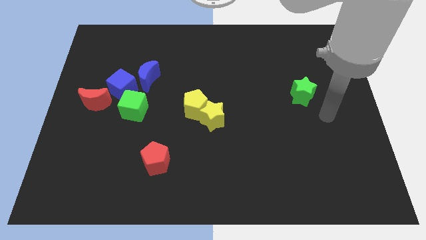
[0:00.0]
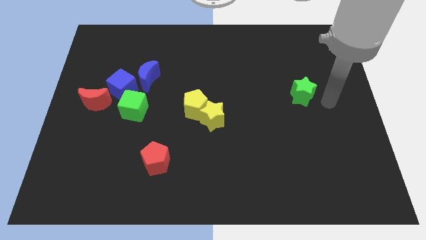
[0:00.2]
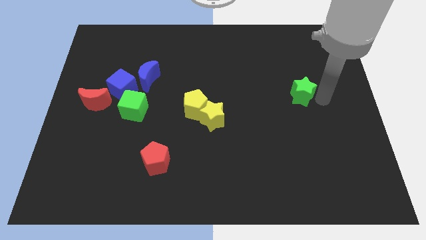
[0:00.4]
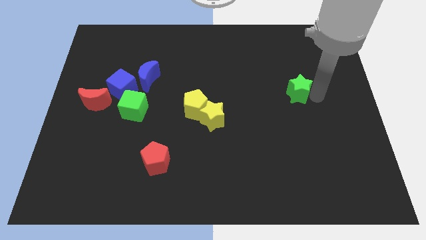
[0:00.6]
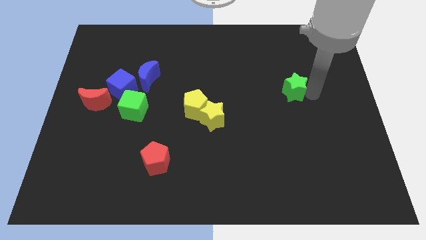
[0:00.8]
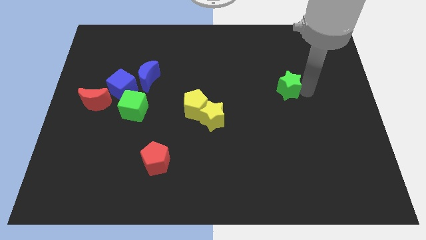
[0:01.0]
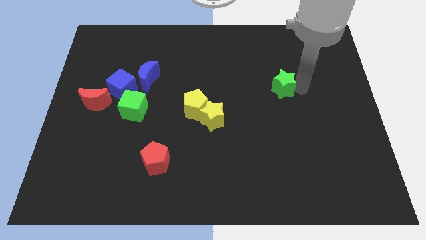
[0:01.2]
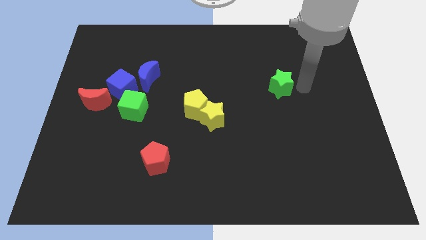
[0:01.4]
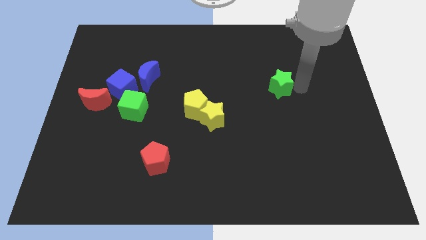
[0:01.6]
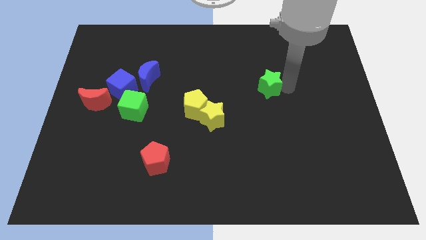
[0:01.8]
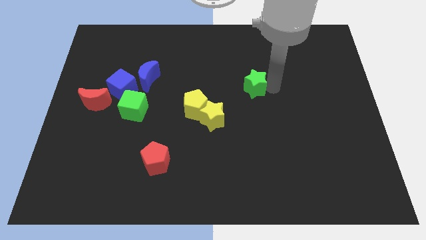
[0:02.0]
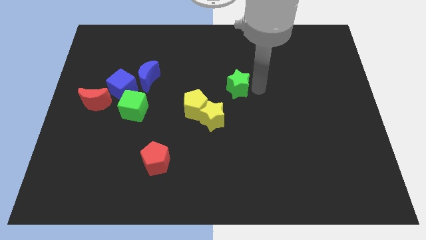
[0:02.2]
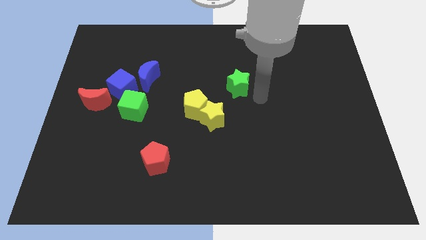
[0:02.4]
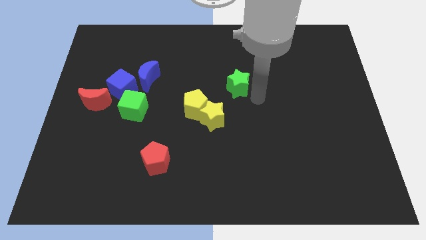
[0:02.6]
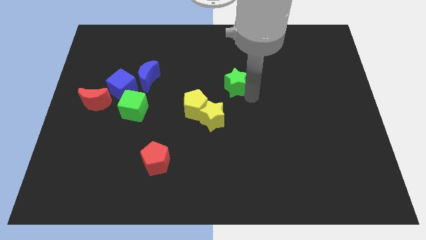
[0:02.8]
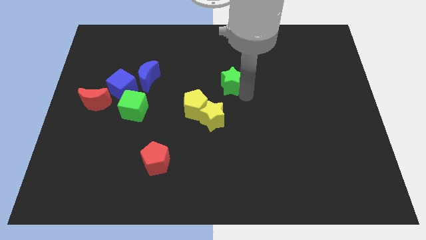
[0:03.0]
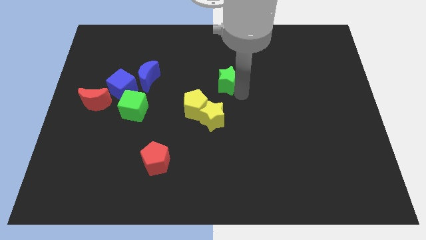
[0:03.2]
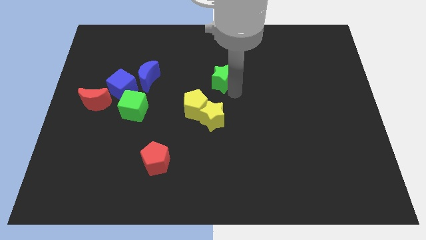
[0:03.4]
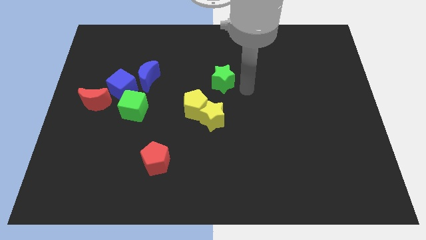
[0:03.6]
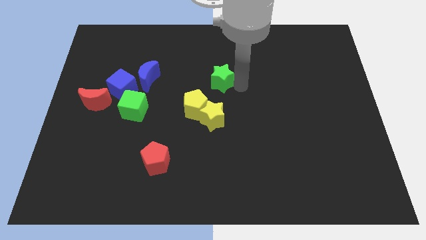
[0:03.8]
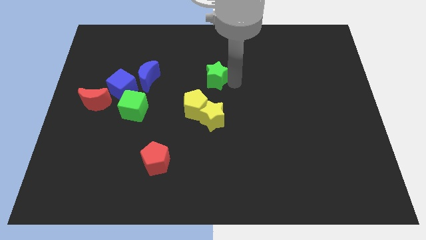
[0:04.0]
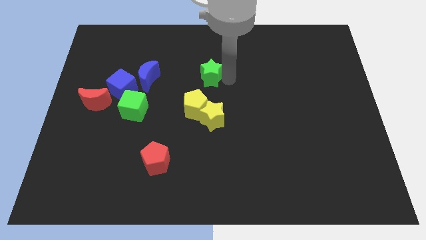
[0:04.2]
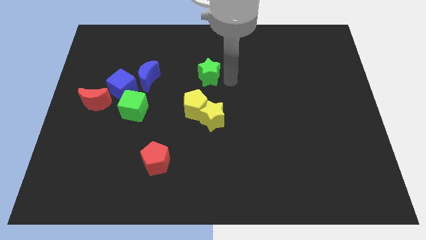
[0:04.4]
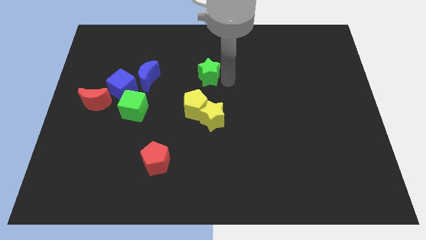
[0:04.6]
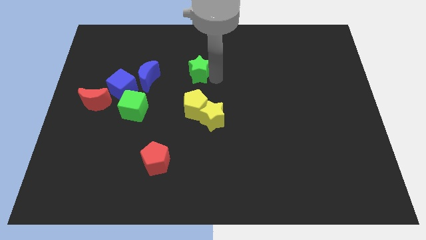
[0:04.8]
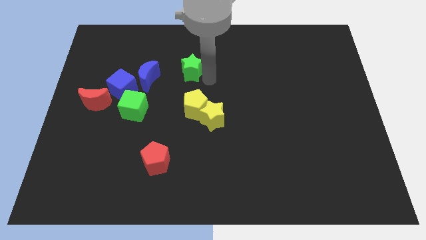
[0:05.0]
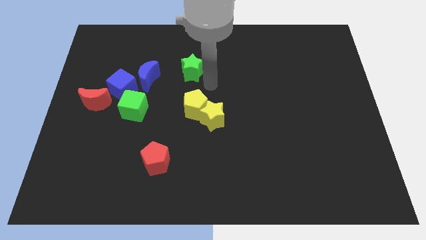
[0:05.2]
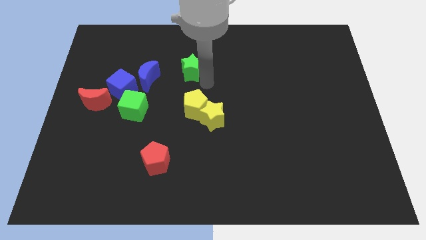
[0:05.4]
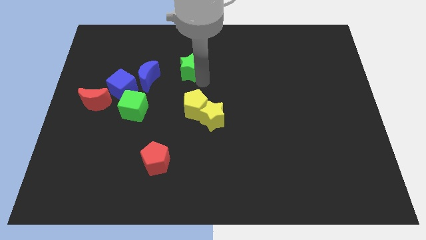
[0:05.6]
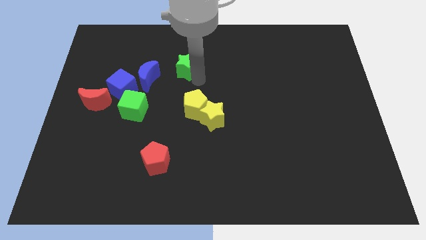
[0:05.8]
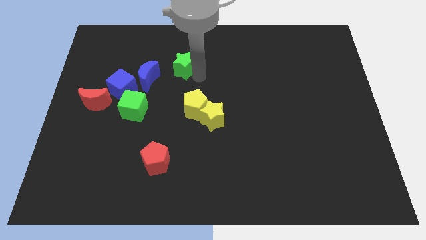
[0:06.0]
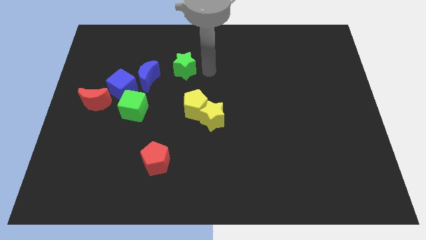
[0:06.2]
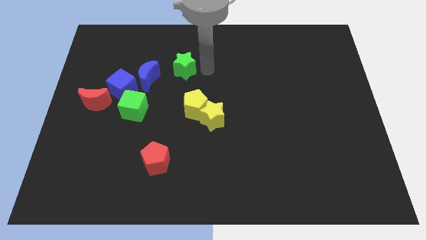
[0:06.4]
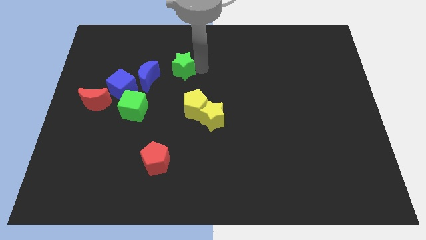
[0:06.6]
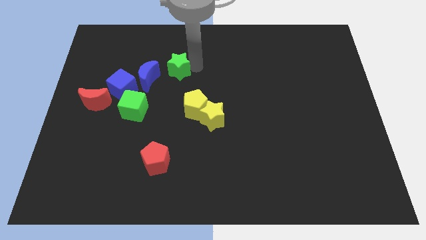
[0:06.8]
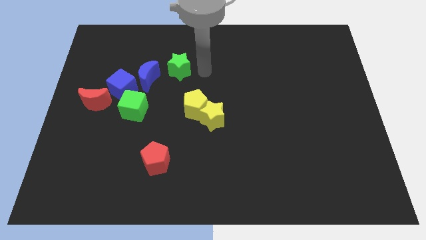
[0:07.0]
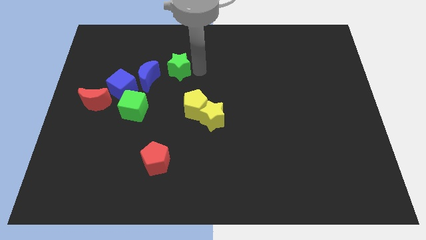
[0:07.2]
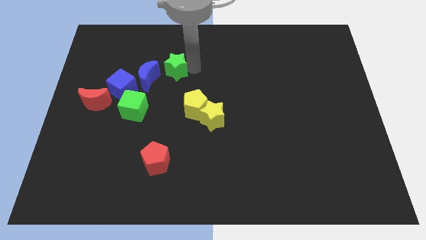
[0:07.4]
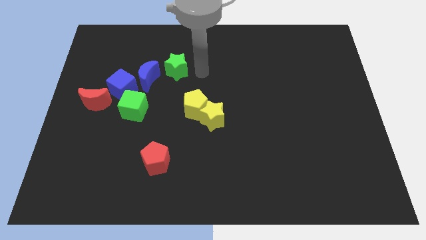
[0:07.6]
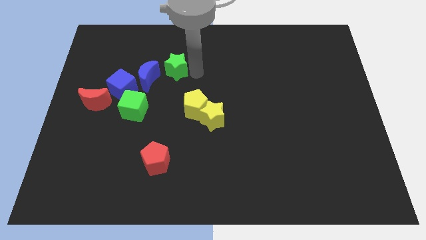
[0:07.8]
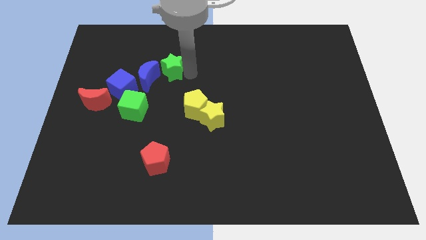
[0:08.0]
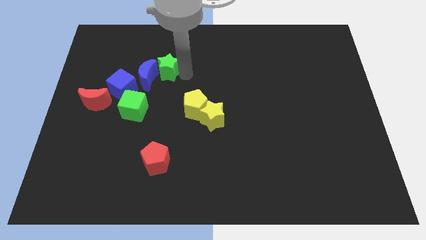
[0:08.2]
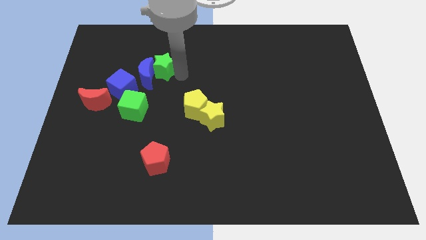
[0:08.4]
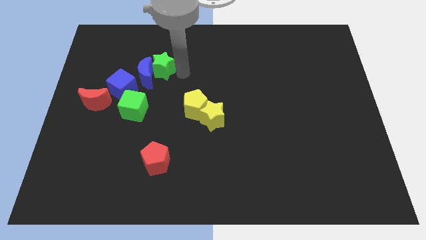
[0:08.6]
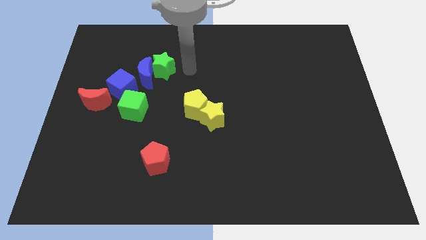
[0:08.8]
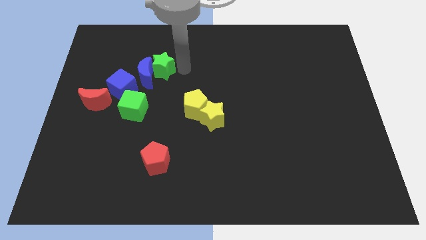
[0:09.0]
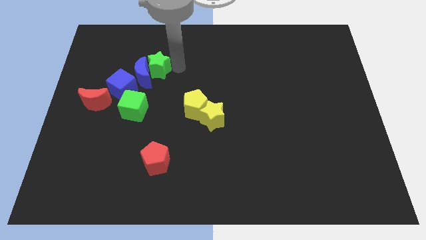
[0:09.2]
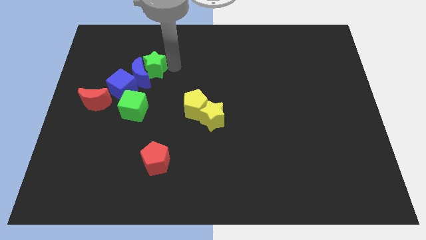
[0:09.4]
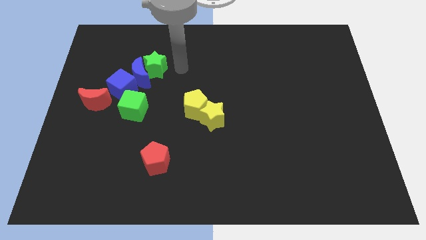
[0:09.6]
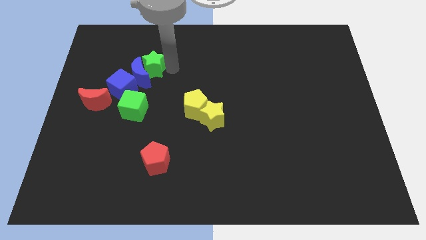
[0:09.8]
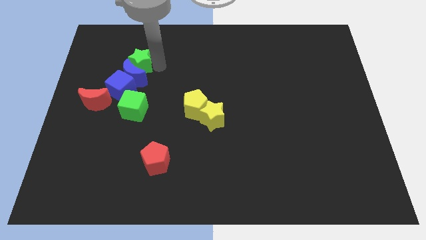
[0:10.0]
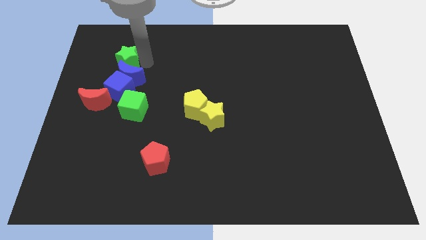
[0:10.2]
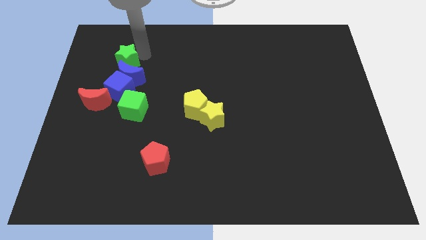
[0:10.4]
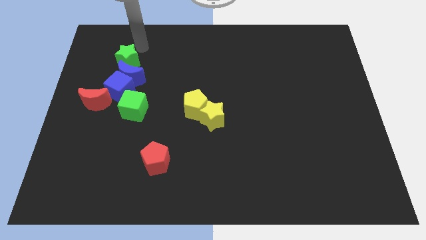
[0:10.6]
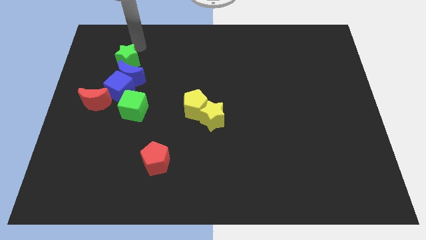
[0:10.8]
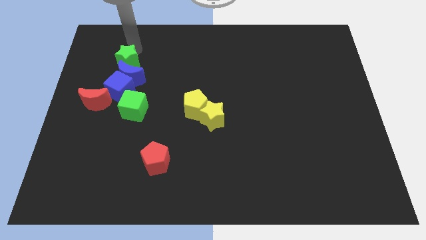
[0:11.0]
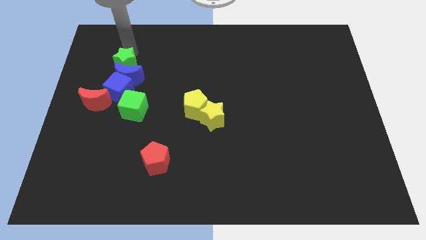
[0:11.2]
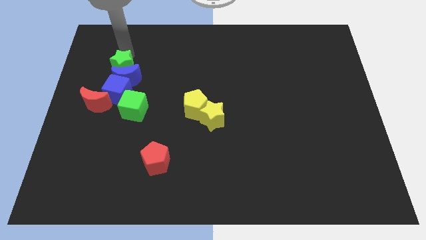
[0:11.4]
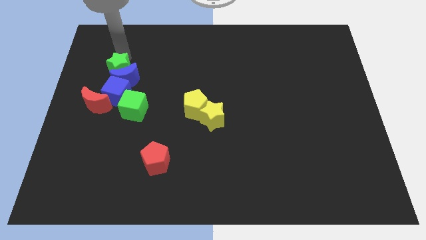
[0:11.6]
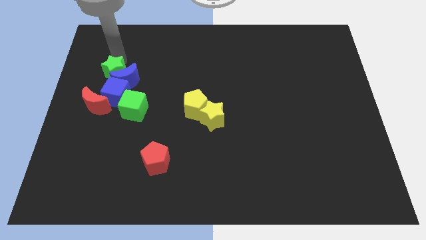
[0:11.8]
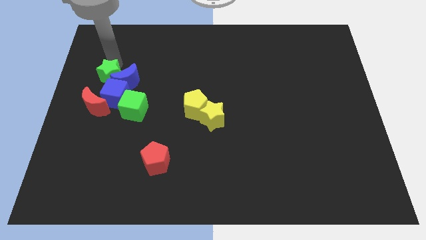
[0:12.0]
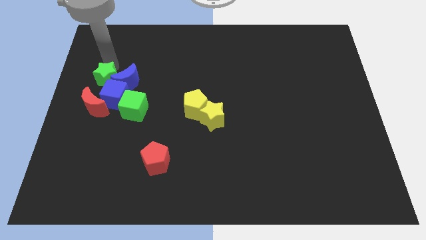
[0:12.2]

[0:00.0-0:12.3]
push the green star to the center left
